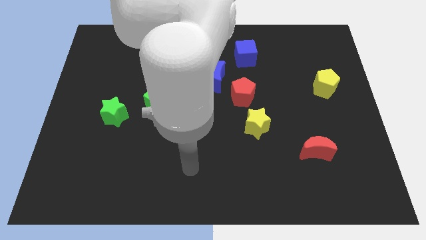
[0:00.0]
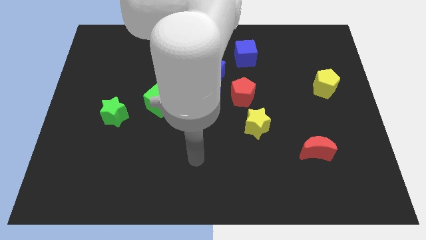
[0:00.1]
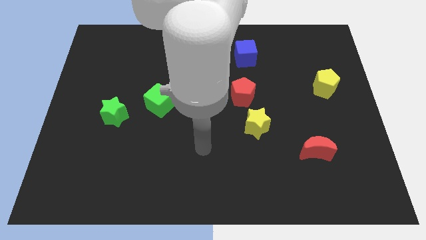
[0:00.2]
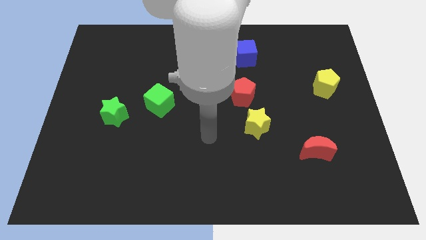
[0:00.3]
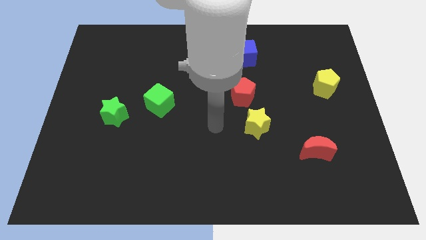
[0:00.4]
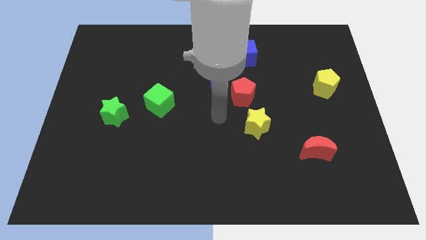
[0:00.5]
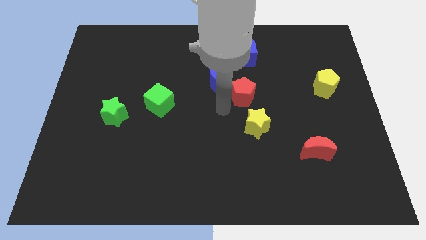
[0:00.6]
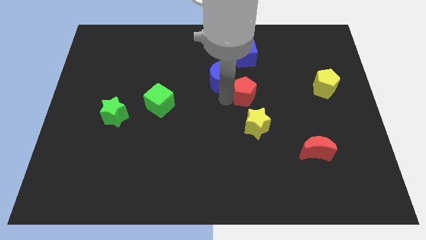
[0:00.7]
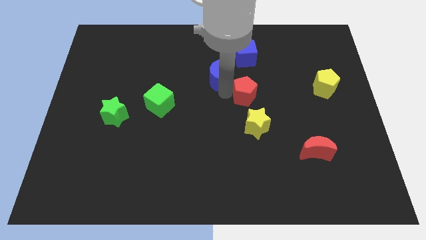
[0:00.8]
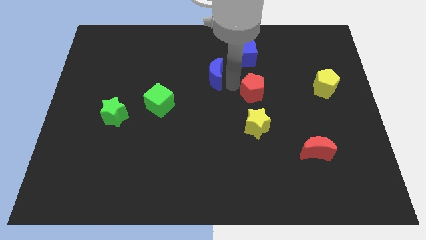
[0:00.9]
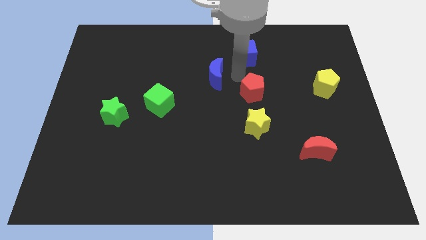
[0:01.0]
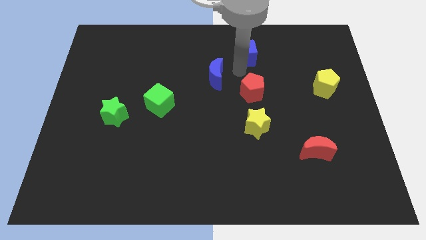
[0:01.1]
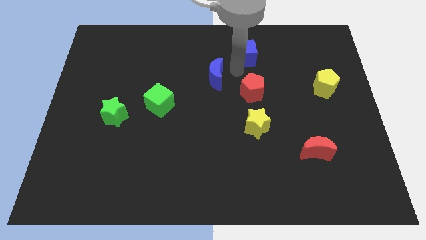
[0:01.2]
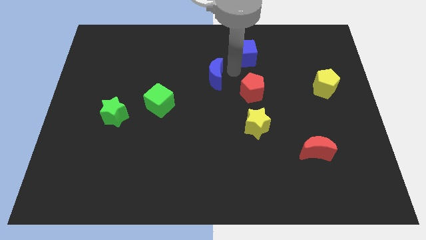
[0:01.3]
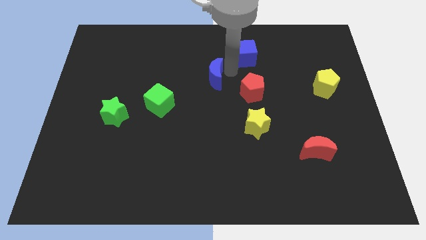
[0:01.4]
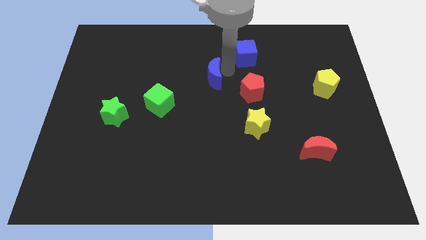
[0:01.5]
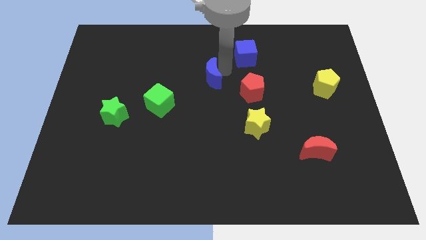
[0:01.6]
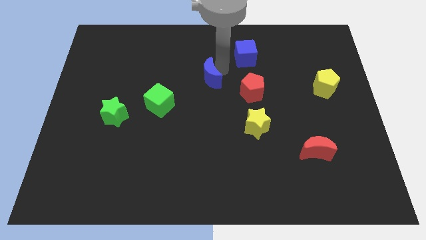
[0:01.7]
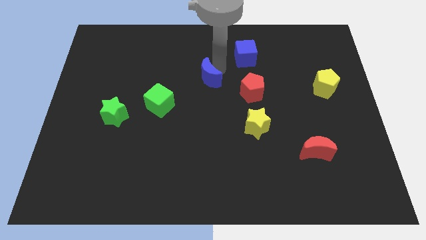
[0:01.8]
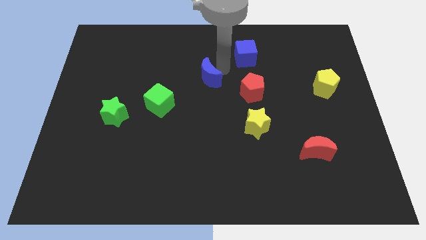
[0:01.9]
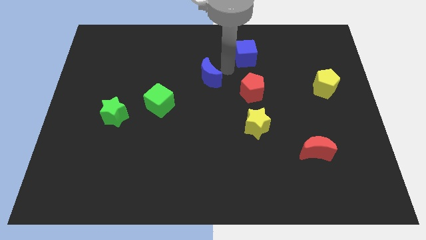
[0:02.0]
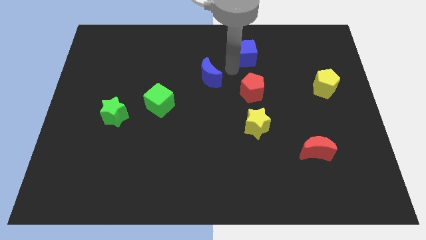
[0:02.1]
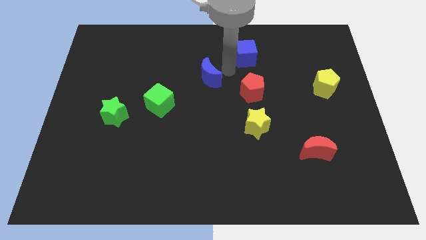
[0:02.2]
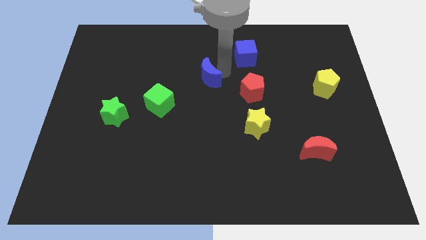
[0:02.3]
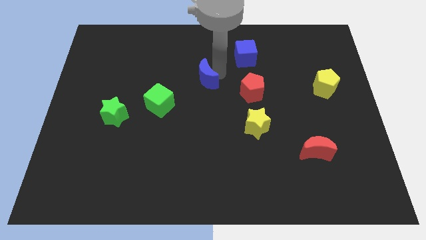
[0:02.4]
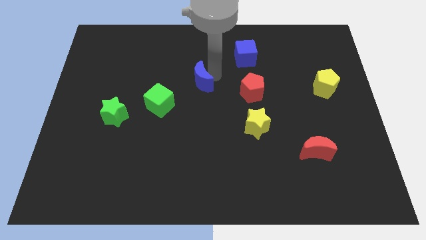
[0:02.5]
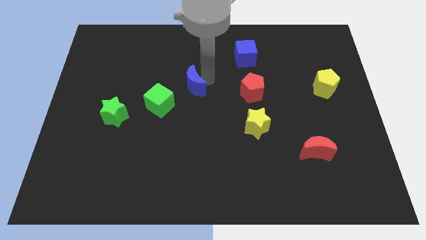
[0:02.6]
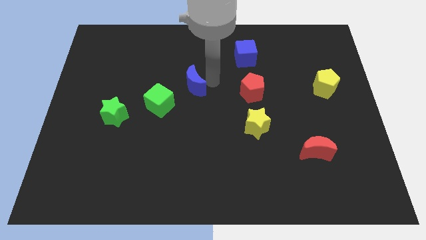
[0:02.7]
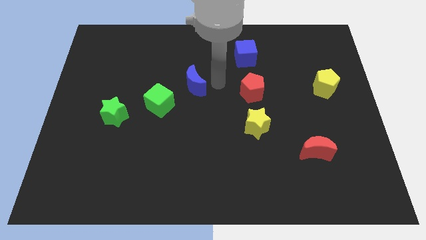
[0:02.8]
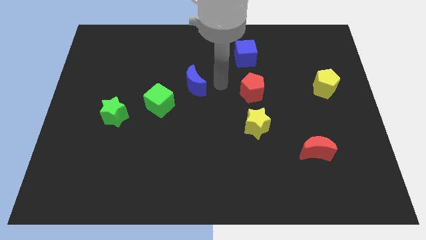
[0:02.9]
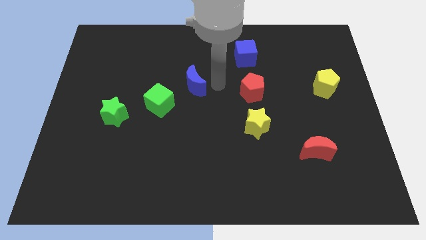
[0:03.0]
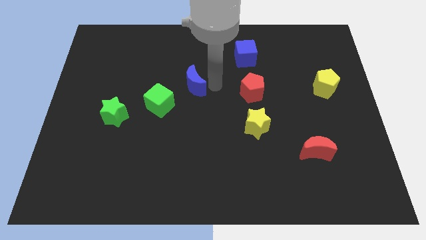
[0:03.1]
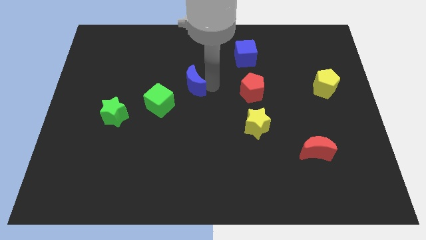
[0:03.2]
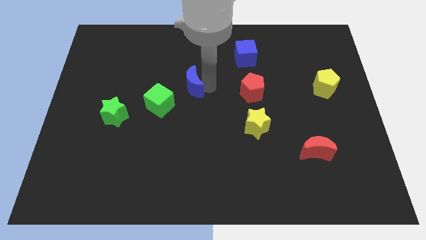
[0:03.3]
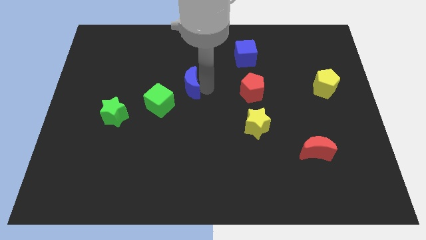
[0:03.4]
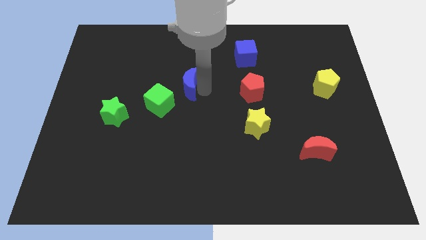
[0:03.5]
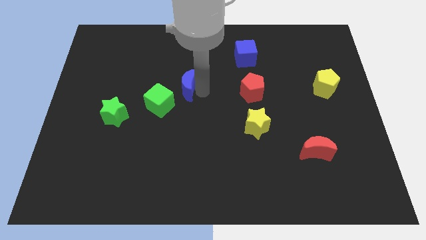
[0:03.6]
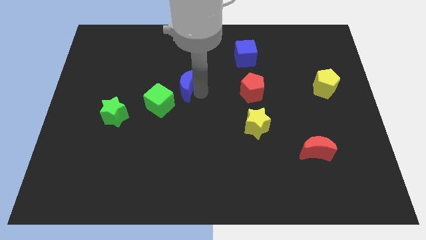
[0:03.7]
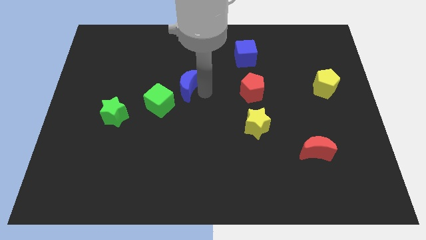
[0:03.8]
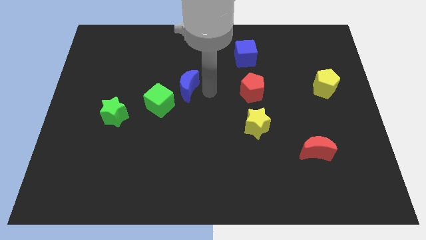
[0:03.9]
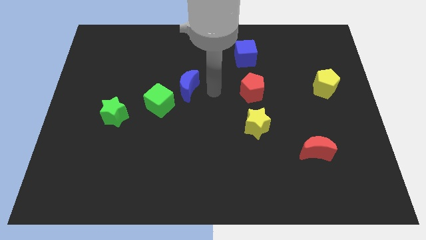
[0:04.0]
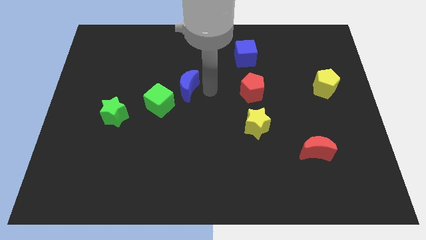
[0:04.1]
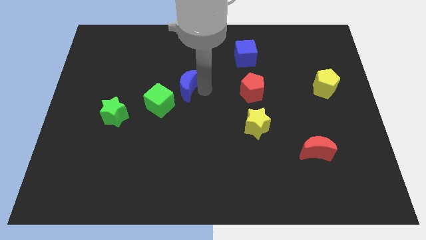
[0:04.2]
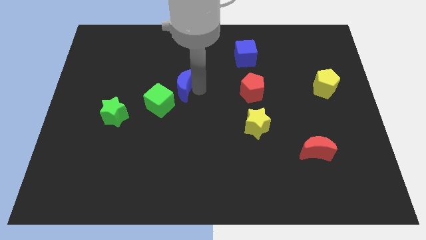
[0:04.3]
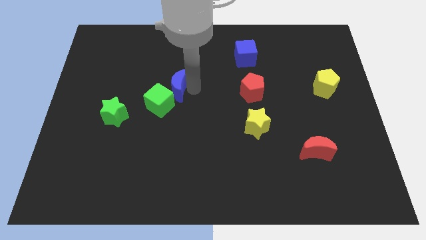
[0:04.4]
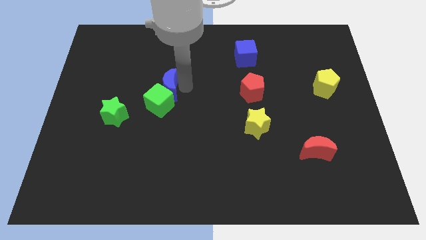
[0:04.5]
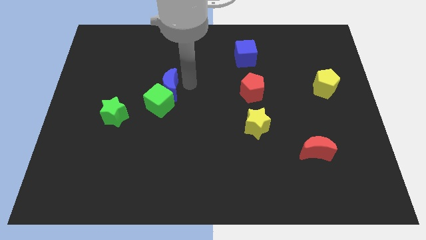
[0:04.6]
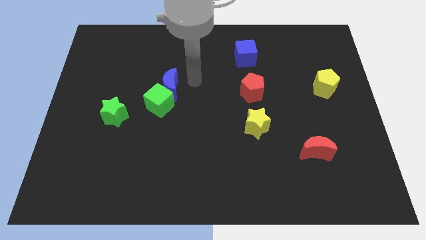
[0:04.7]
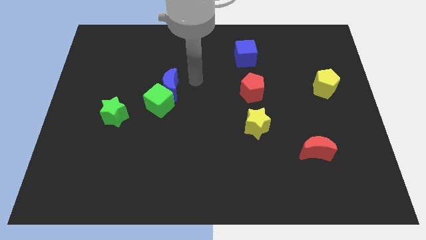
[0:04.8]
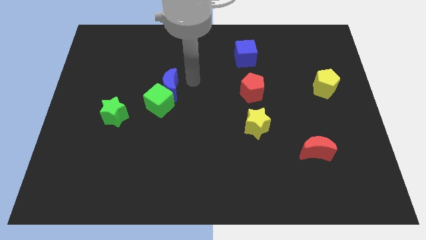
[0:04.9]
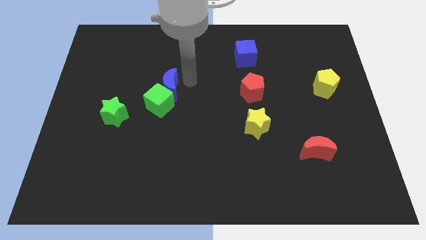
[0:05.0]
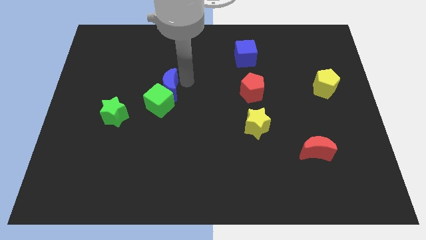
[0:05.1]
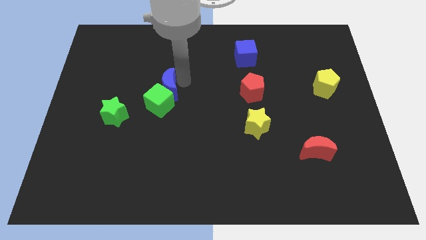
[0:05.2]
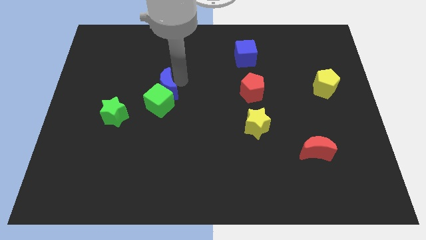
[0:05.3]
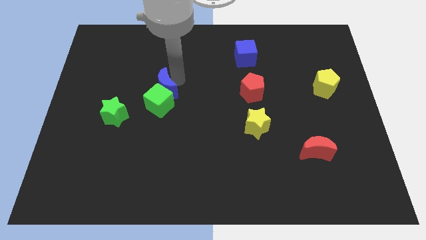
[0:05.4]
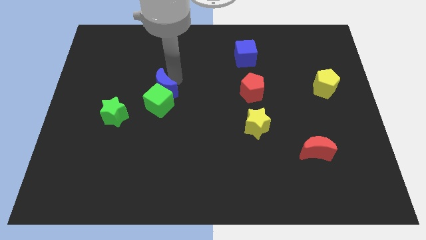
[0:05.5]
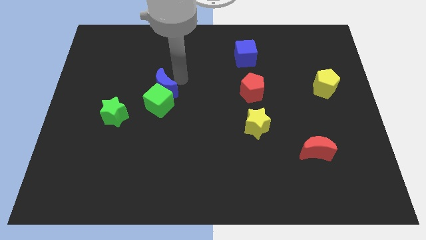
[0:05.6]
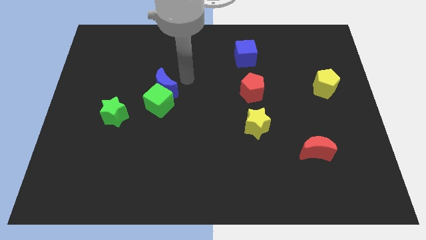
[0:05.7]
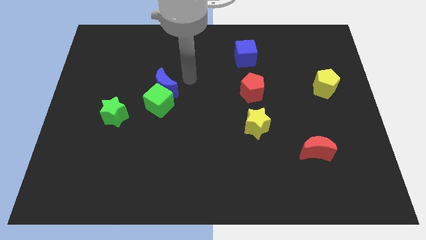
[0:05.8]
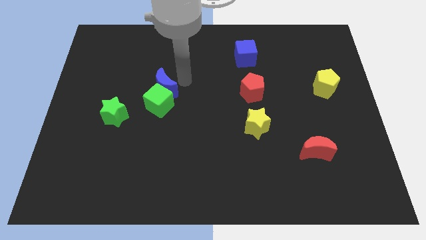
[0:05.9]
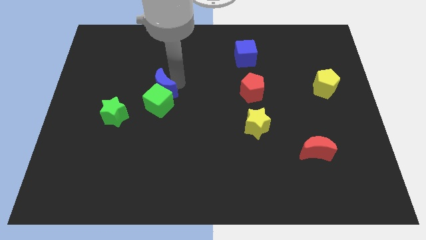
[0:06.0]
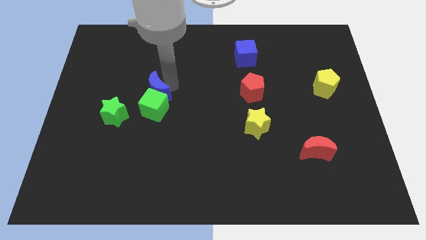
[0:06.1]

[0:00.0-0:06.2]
slide the blue moon to the top right side of the green star
